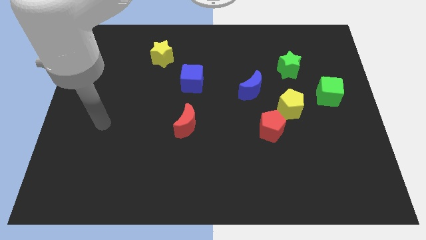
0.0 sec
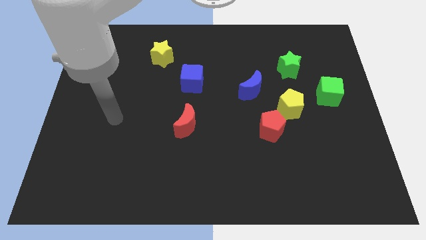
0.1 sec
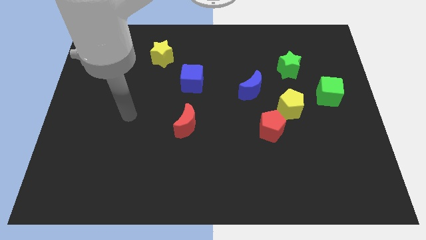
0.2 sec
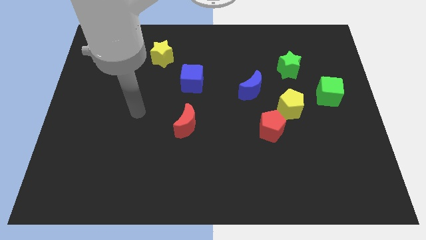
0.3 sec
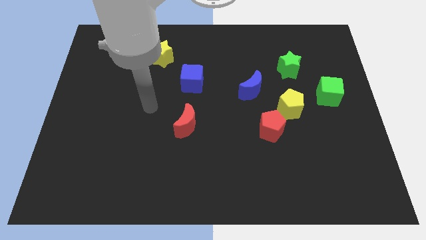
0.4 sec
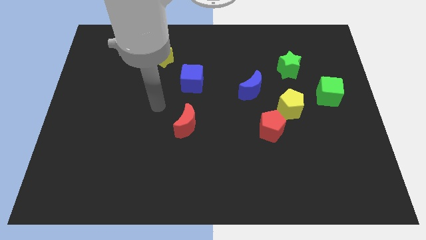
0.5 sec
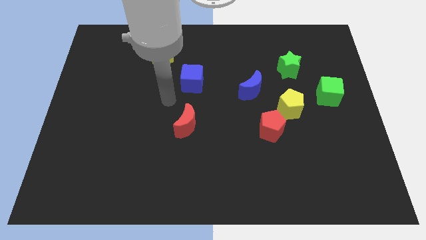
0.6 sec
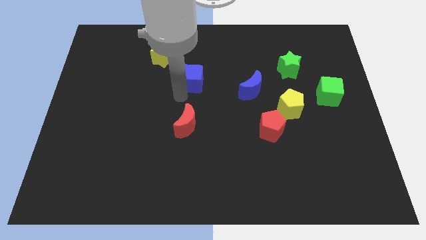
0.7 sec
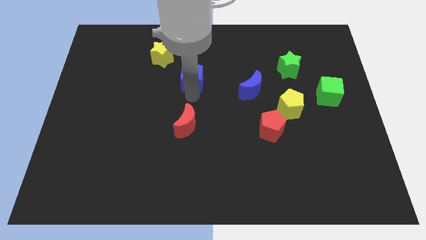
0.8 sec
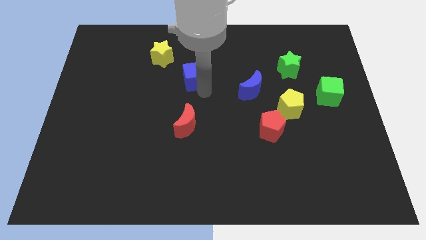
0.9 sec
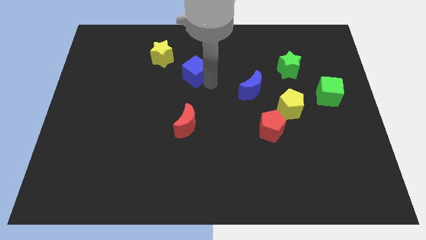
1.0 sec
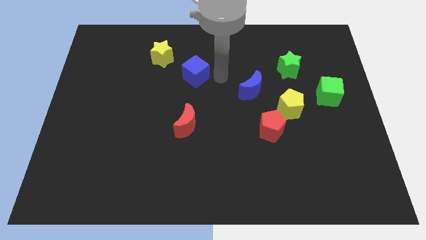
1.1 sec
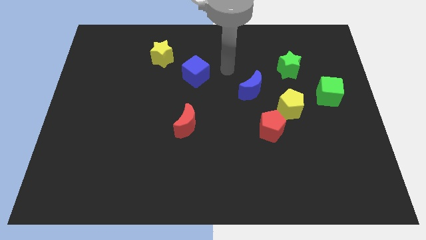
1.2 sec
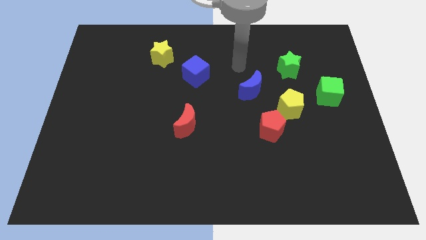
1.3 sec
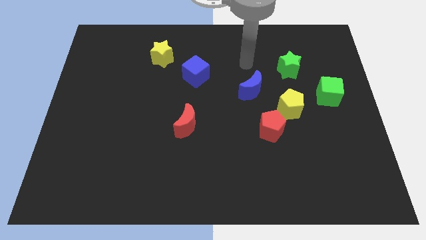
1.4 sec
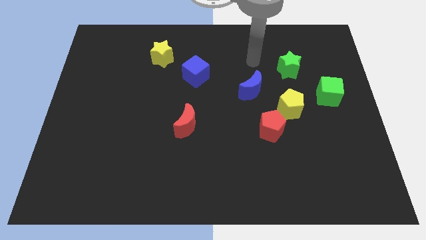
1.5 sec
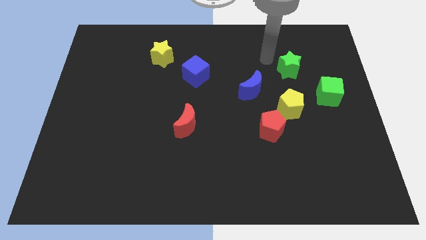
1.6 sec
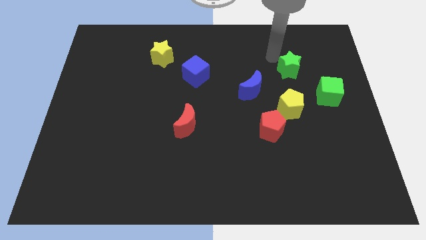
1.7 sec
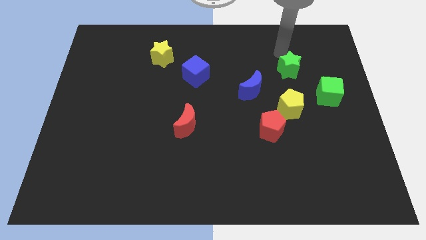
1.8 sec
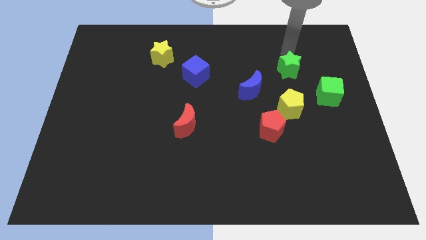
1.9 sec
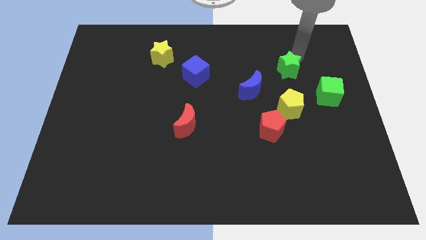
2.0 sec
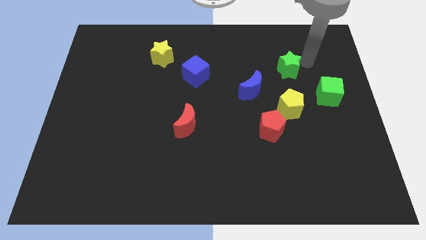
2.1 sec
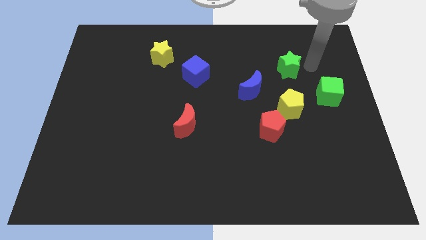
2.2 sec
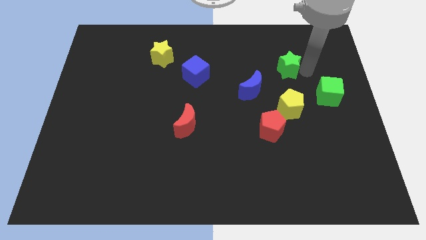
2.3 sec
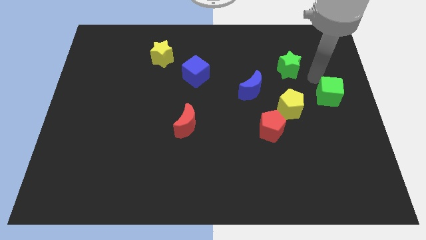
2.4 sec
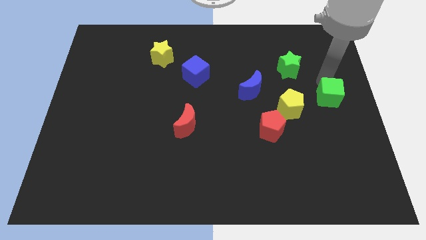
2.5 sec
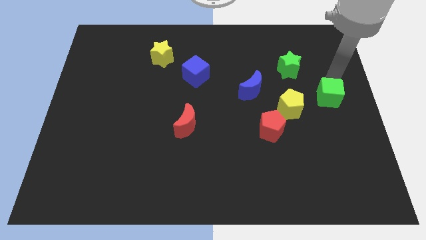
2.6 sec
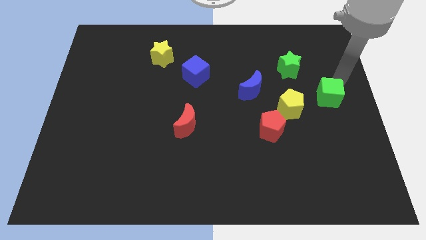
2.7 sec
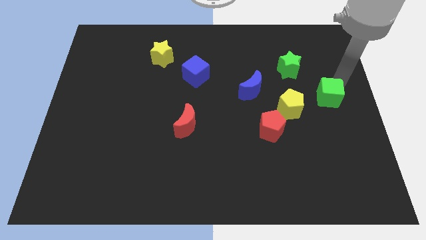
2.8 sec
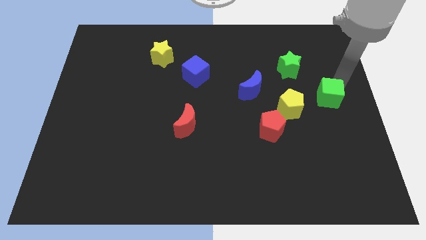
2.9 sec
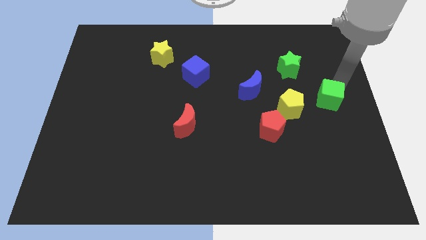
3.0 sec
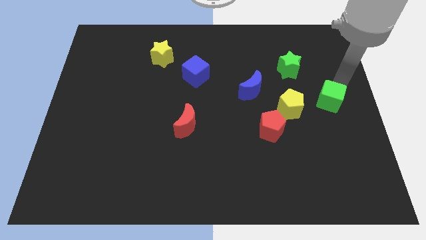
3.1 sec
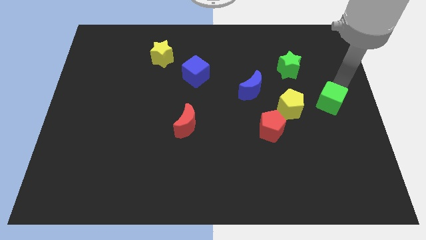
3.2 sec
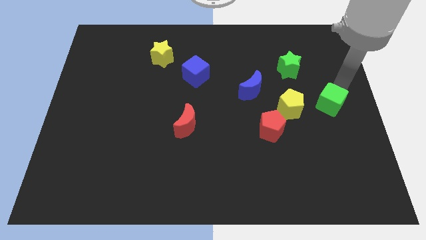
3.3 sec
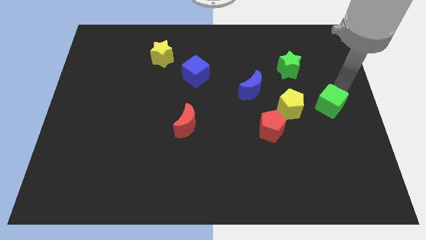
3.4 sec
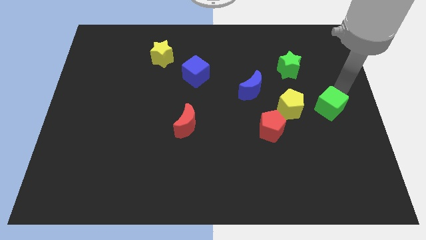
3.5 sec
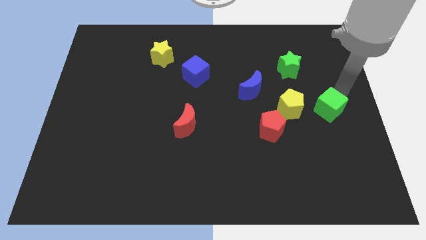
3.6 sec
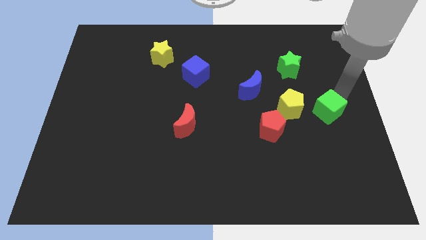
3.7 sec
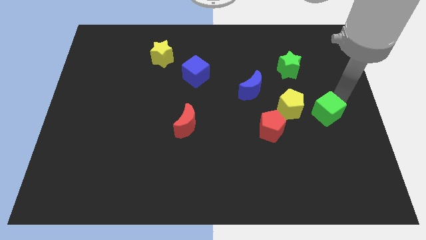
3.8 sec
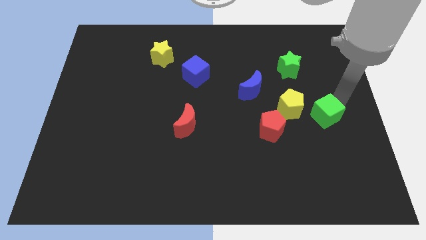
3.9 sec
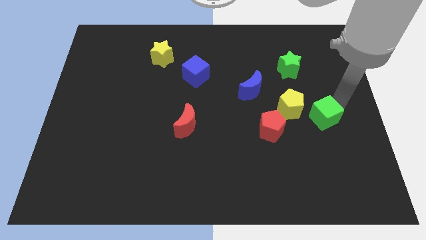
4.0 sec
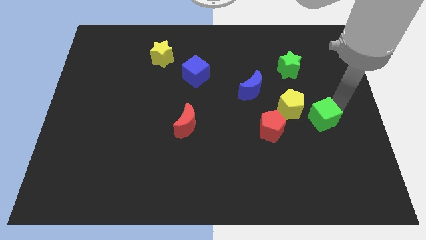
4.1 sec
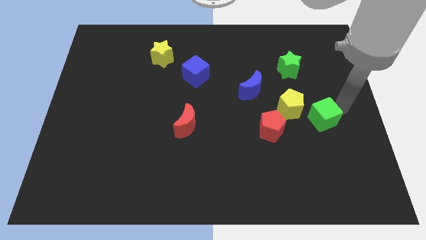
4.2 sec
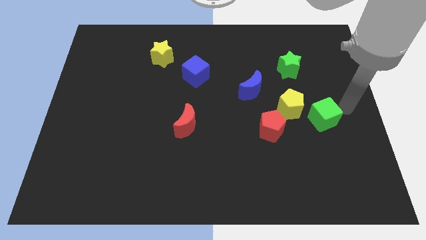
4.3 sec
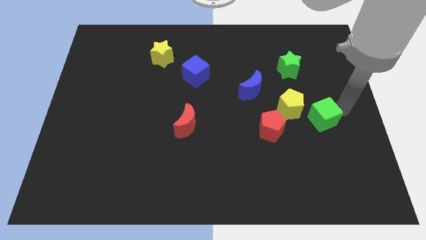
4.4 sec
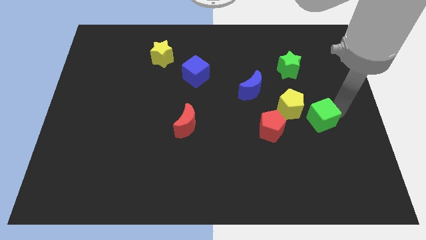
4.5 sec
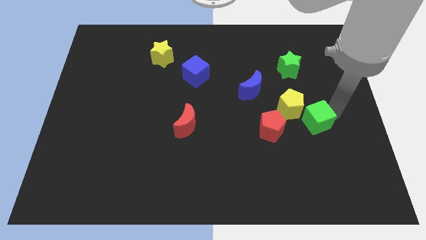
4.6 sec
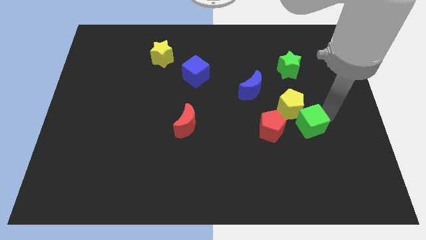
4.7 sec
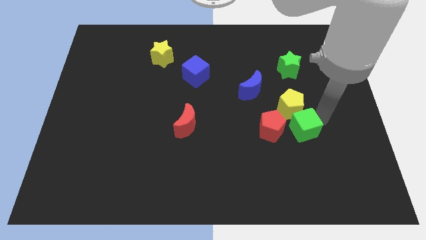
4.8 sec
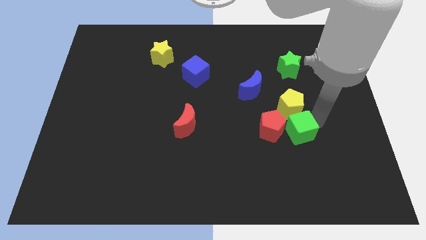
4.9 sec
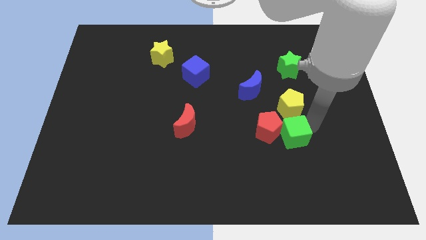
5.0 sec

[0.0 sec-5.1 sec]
move the green cube towards the red pentagon

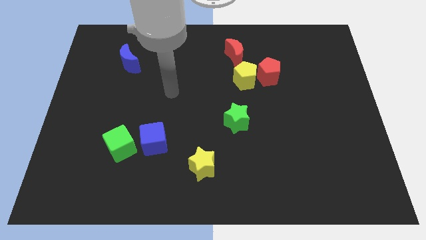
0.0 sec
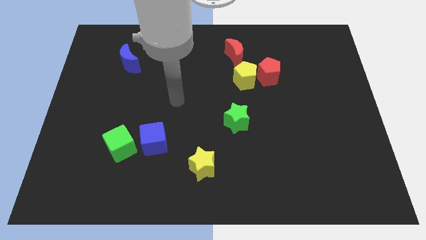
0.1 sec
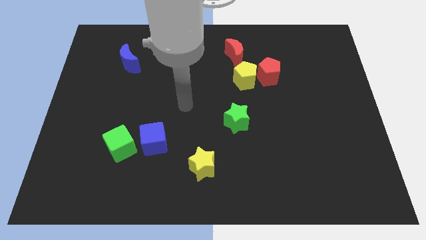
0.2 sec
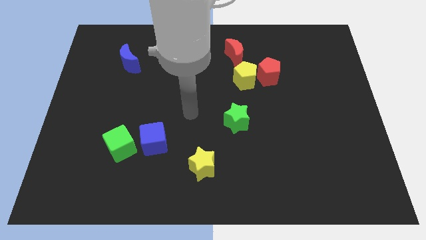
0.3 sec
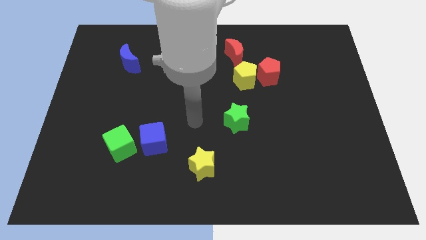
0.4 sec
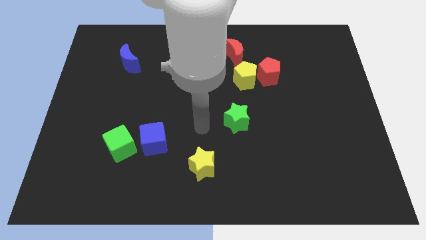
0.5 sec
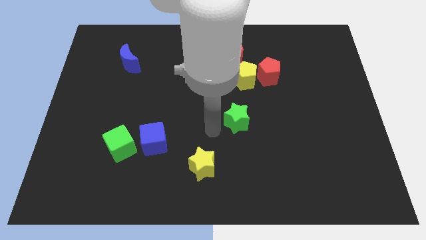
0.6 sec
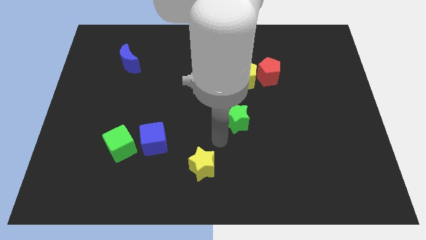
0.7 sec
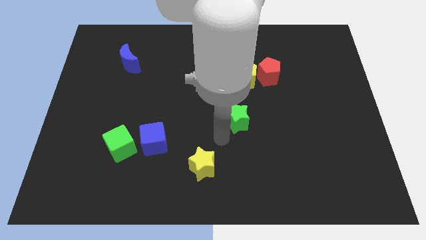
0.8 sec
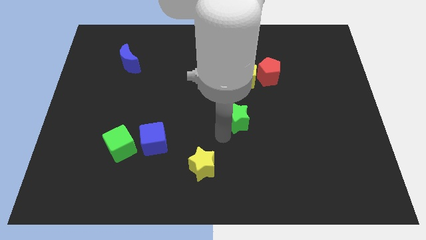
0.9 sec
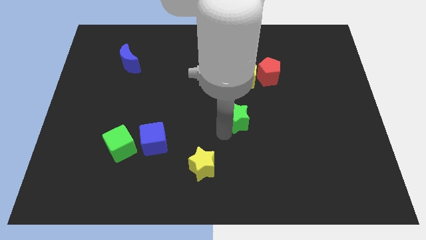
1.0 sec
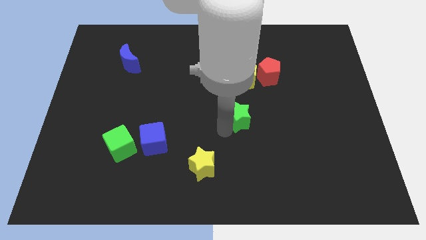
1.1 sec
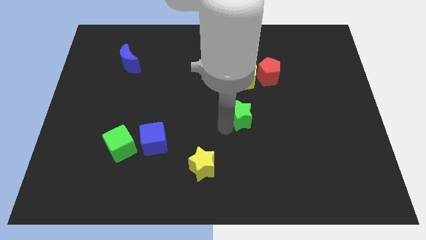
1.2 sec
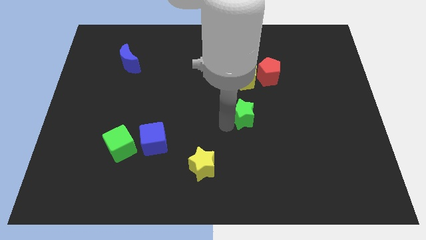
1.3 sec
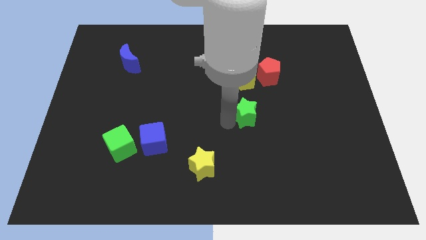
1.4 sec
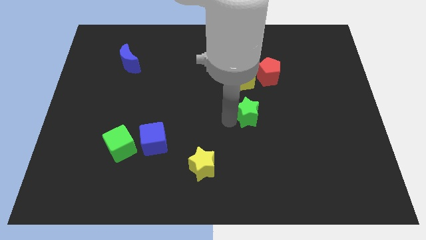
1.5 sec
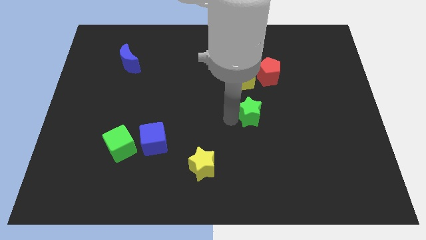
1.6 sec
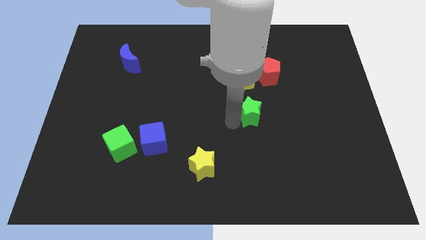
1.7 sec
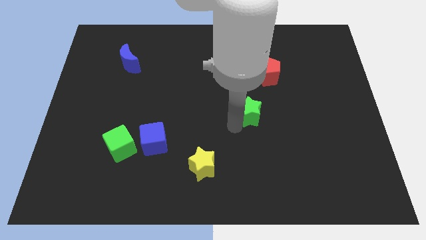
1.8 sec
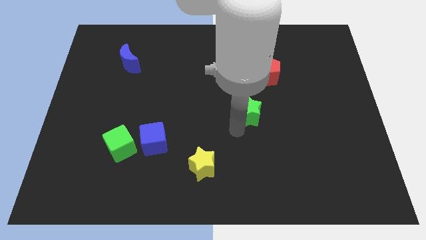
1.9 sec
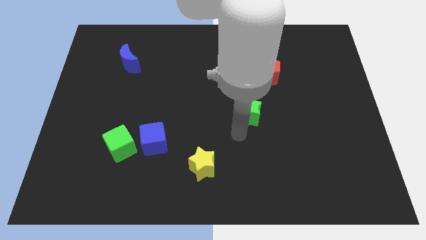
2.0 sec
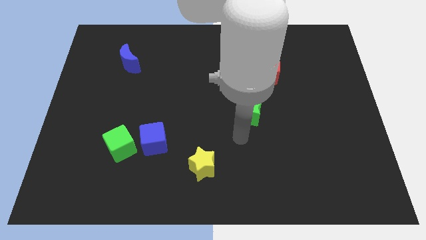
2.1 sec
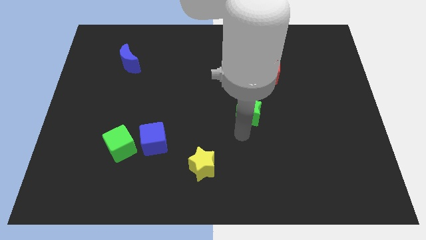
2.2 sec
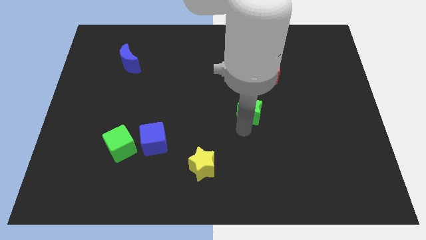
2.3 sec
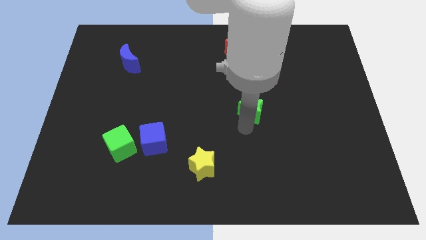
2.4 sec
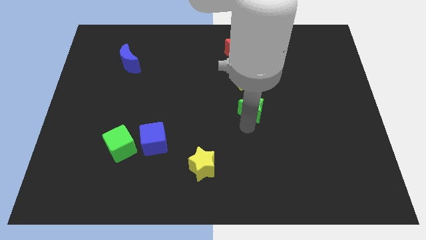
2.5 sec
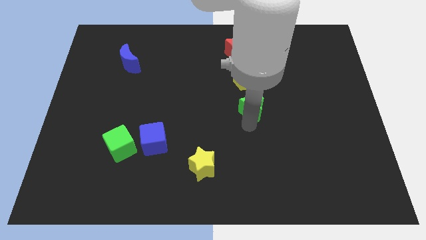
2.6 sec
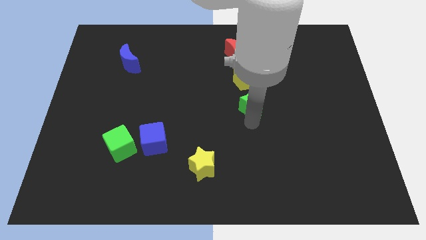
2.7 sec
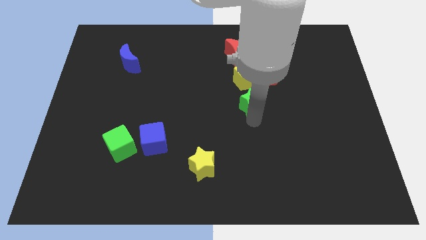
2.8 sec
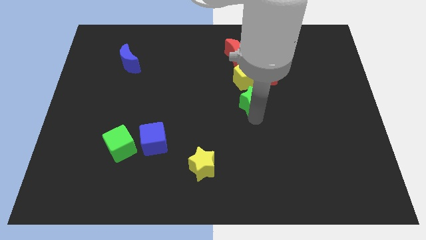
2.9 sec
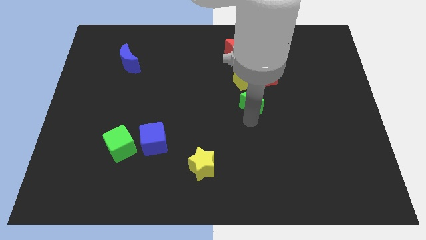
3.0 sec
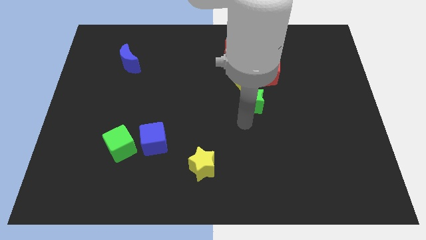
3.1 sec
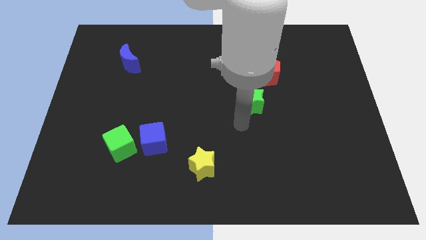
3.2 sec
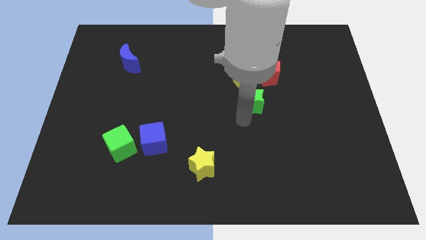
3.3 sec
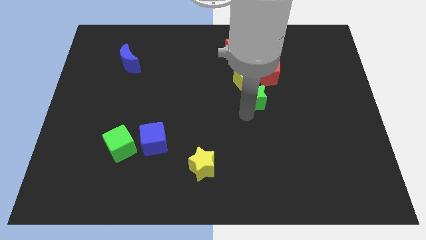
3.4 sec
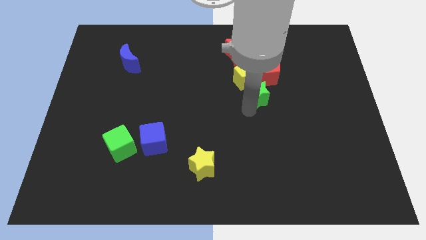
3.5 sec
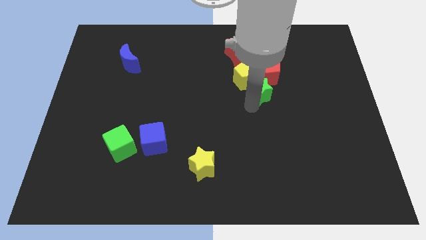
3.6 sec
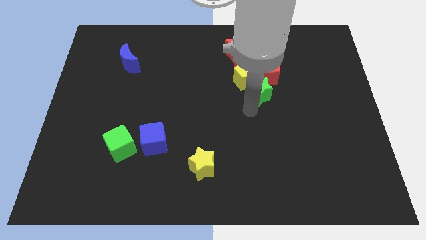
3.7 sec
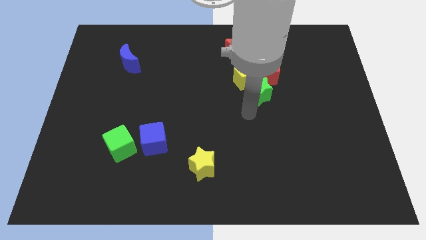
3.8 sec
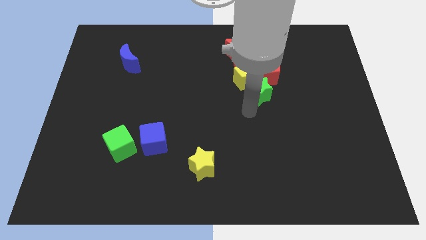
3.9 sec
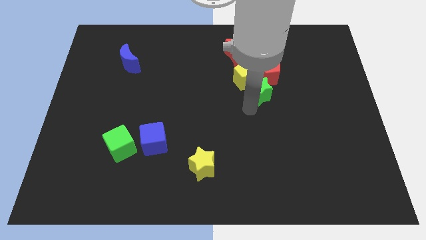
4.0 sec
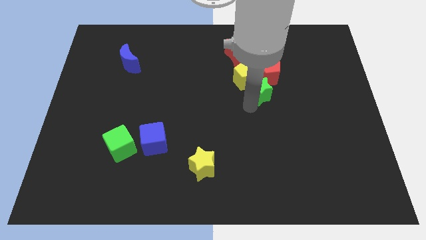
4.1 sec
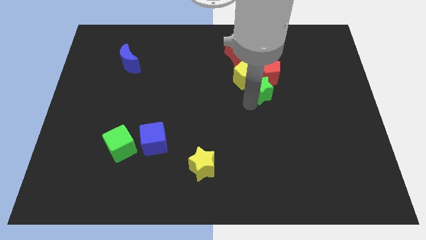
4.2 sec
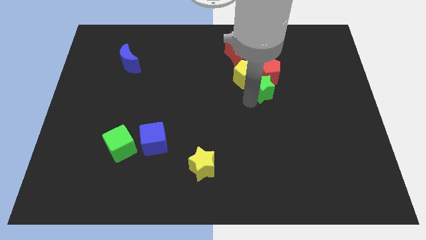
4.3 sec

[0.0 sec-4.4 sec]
slide the green star towards the red pentagon
